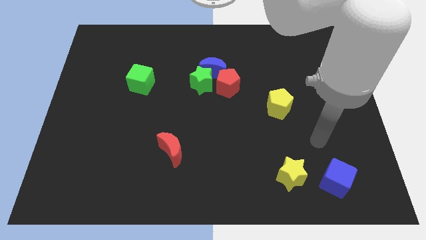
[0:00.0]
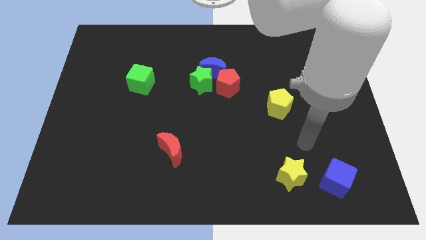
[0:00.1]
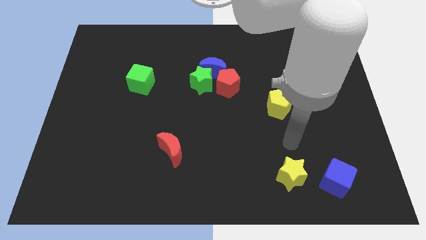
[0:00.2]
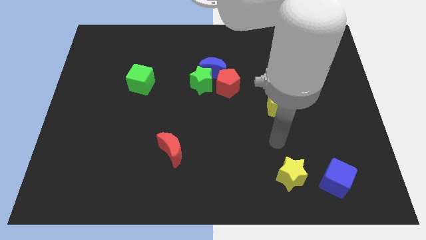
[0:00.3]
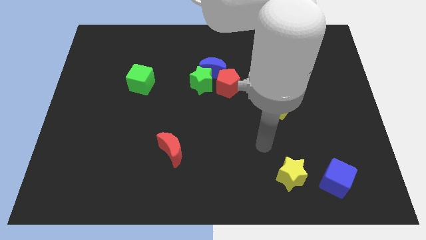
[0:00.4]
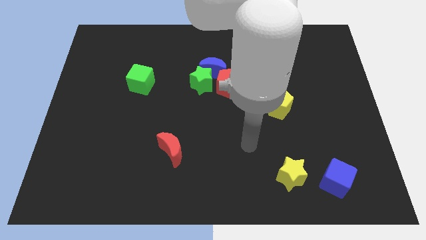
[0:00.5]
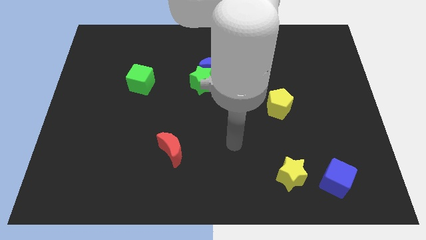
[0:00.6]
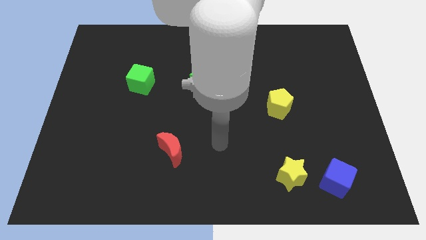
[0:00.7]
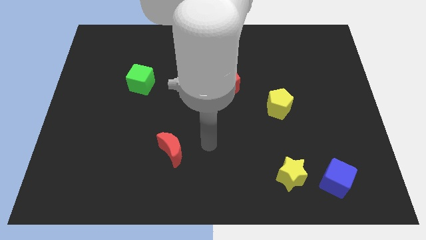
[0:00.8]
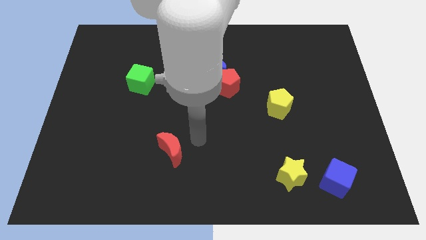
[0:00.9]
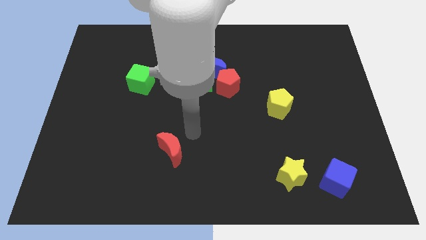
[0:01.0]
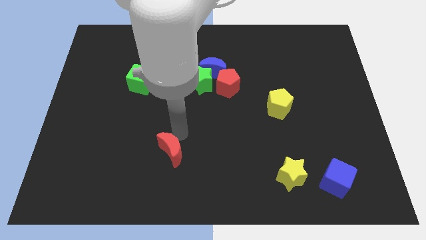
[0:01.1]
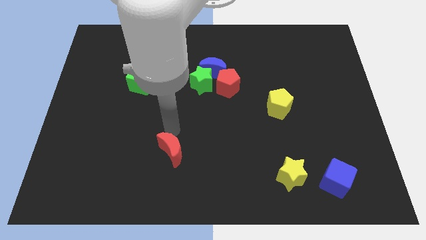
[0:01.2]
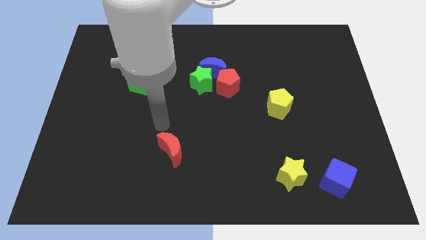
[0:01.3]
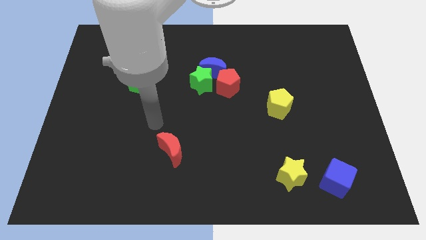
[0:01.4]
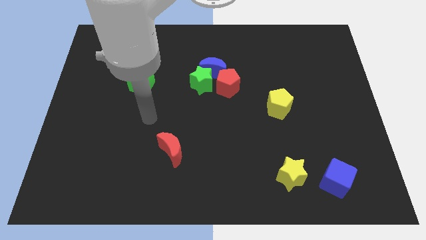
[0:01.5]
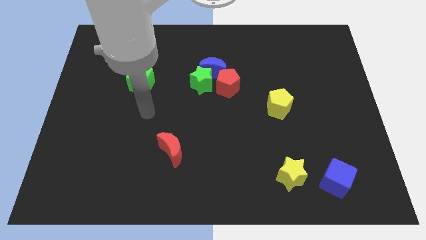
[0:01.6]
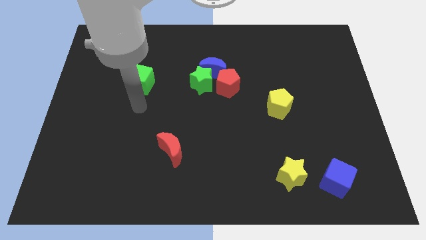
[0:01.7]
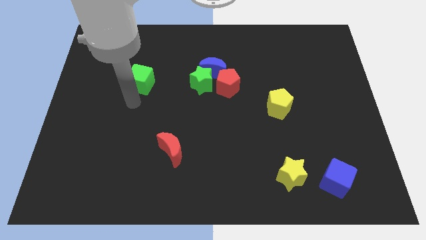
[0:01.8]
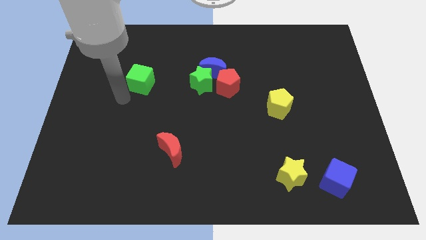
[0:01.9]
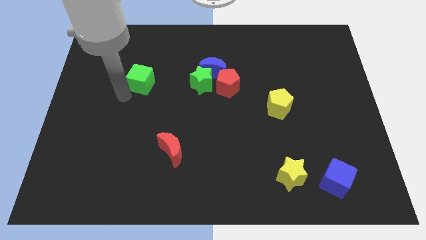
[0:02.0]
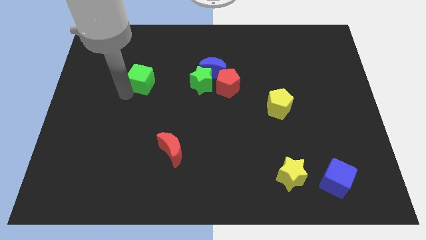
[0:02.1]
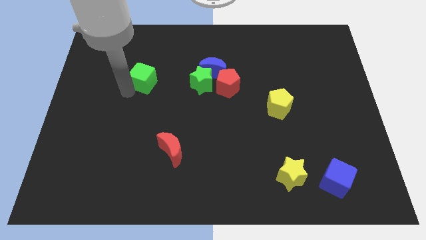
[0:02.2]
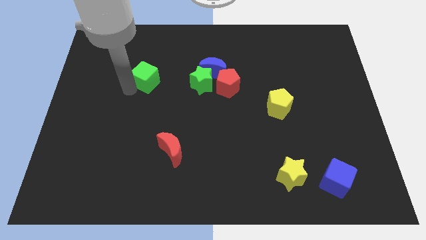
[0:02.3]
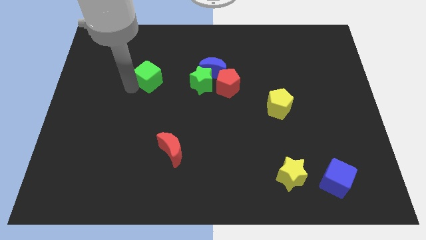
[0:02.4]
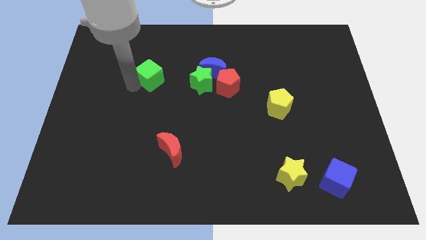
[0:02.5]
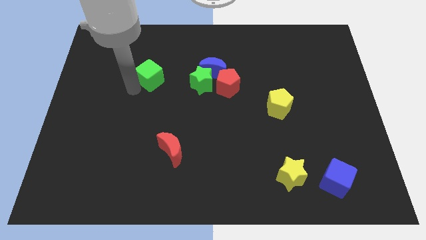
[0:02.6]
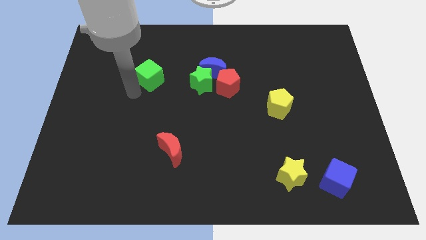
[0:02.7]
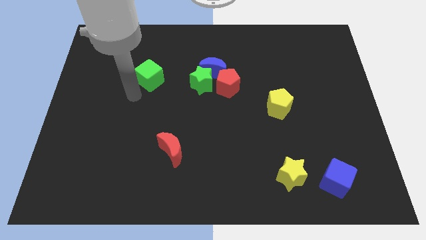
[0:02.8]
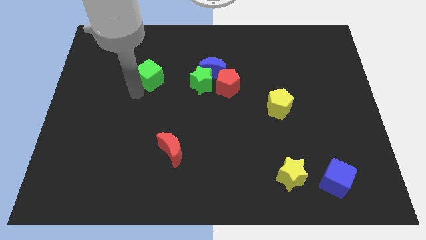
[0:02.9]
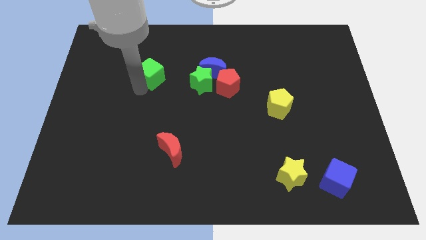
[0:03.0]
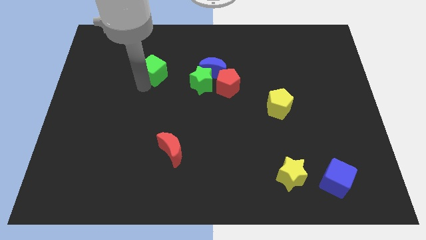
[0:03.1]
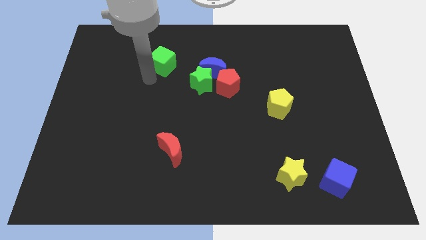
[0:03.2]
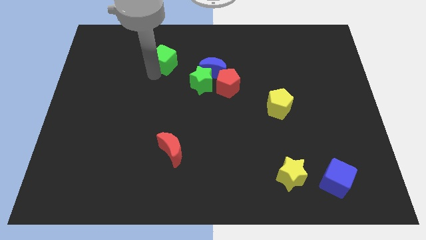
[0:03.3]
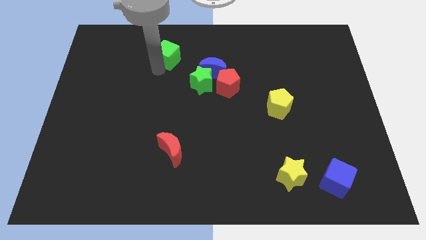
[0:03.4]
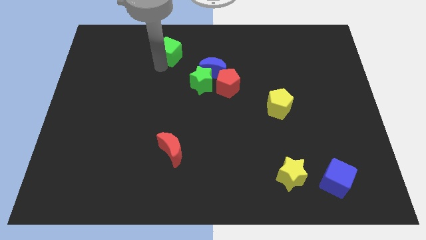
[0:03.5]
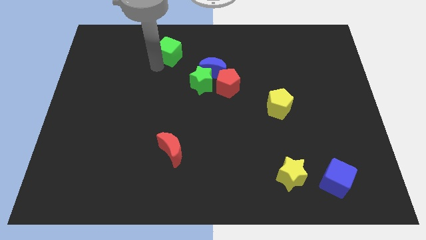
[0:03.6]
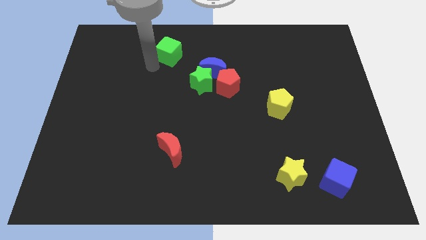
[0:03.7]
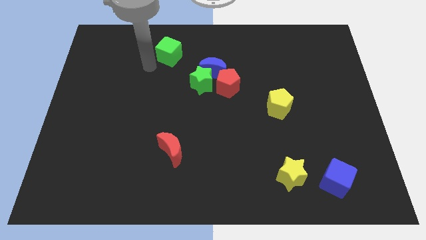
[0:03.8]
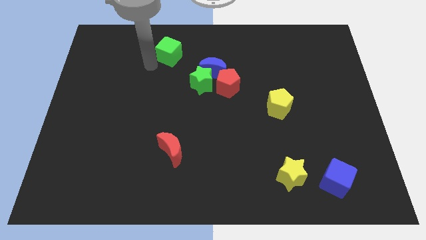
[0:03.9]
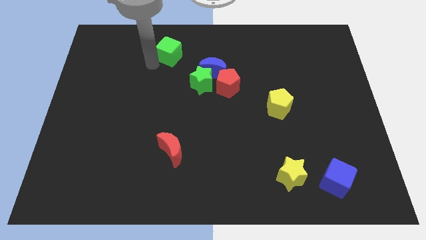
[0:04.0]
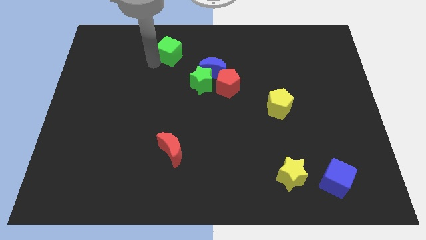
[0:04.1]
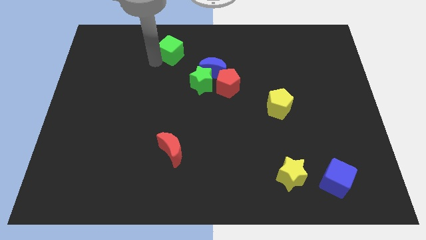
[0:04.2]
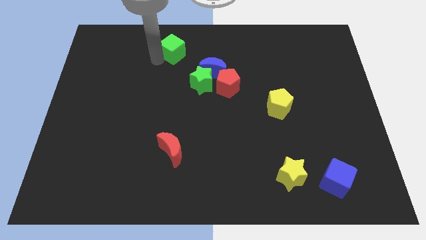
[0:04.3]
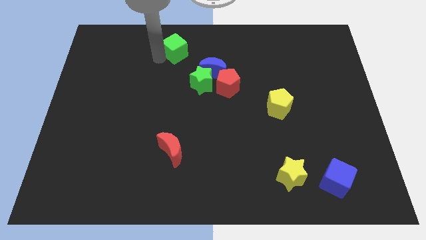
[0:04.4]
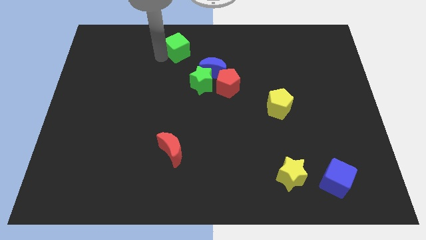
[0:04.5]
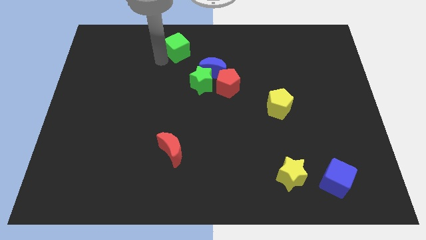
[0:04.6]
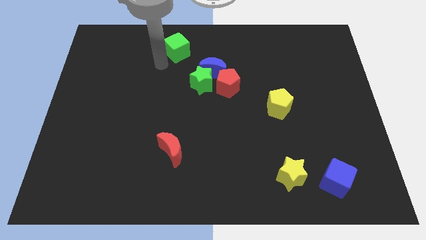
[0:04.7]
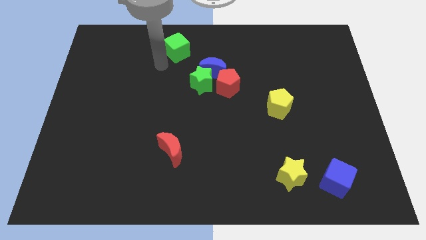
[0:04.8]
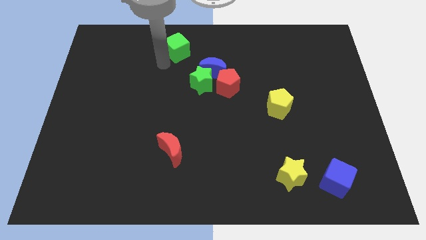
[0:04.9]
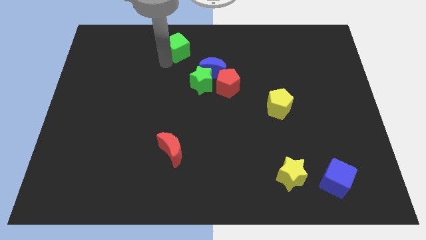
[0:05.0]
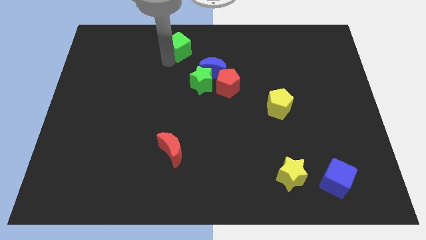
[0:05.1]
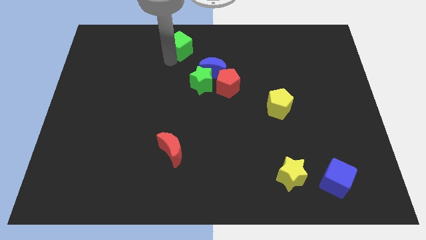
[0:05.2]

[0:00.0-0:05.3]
move the green cube to the towards your base

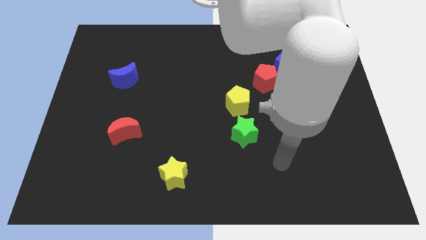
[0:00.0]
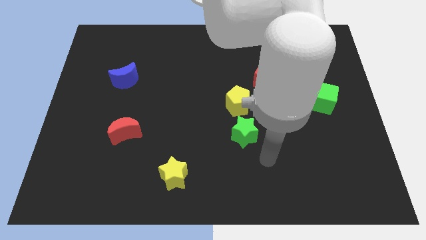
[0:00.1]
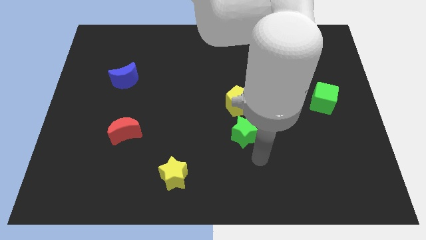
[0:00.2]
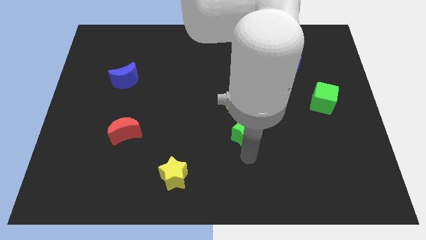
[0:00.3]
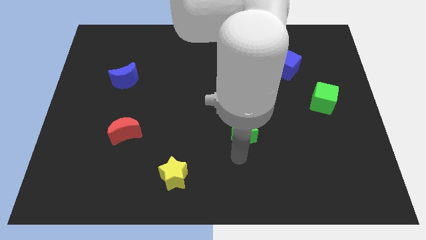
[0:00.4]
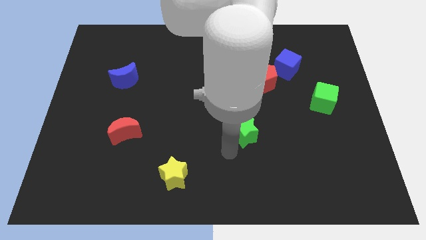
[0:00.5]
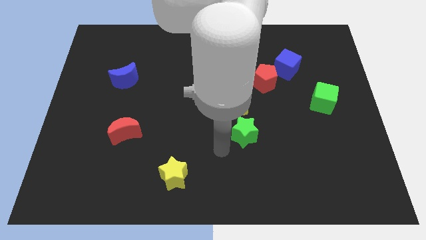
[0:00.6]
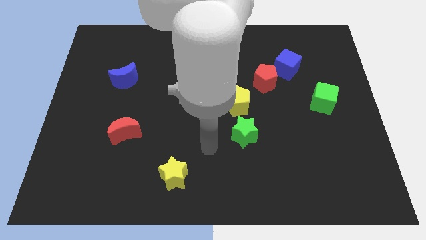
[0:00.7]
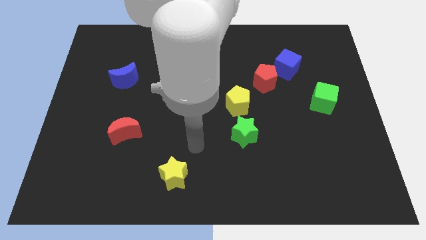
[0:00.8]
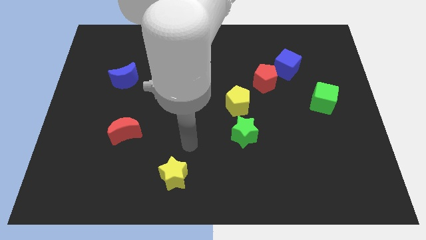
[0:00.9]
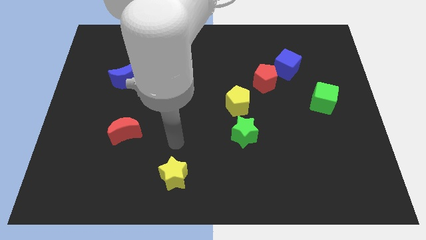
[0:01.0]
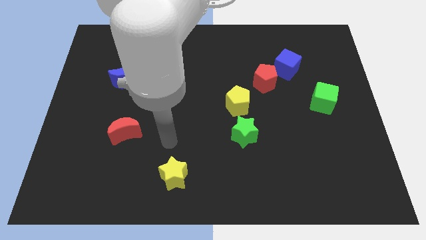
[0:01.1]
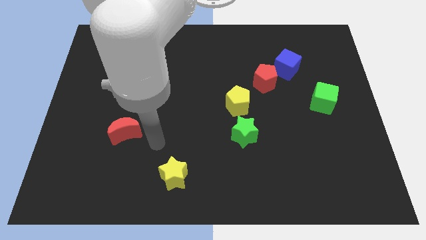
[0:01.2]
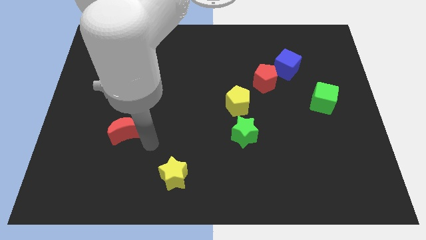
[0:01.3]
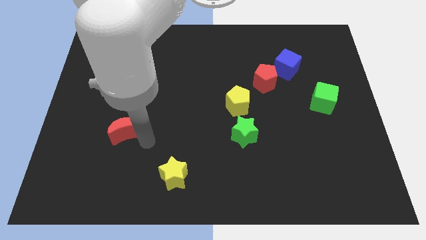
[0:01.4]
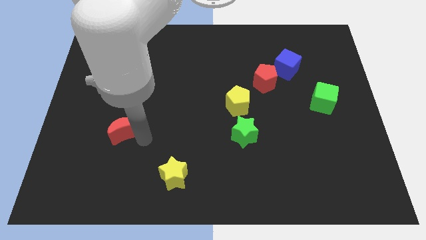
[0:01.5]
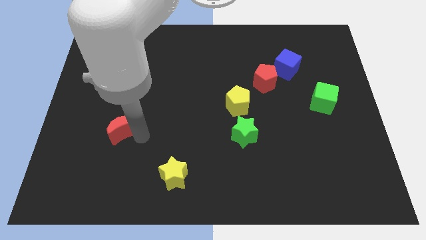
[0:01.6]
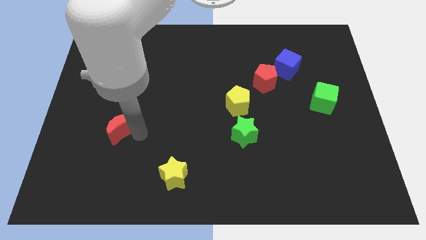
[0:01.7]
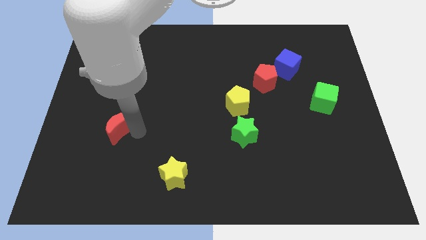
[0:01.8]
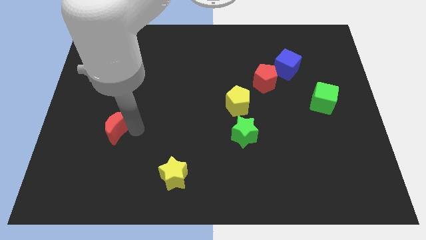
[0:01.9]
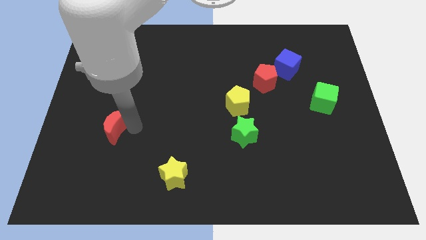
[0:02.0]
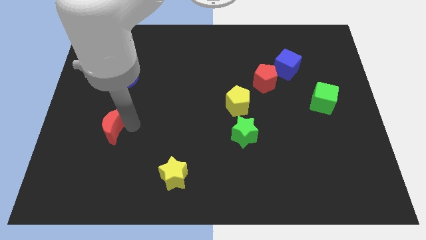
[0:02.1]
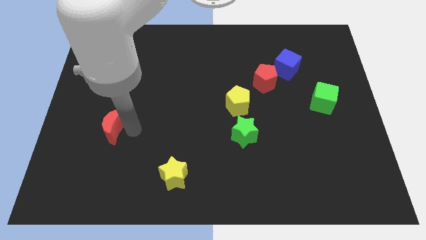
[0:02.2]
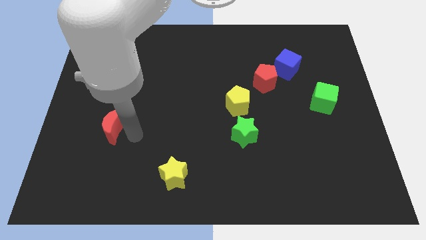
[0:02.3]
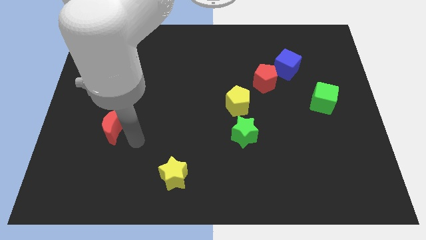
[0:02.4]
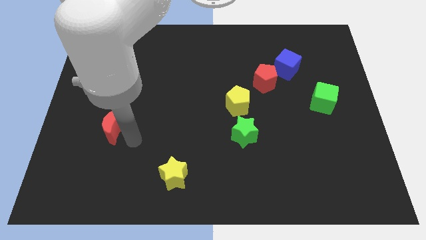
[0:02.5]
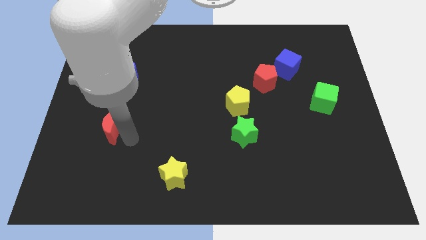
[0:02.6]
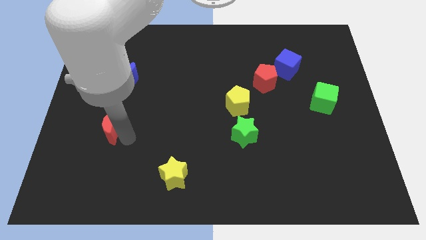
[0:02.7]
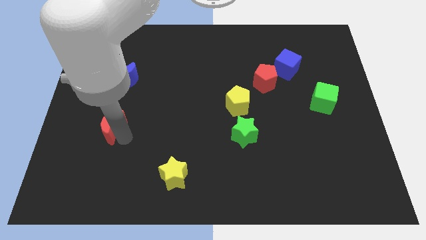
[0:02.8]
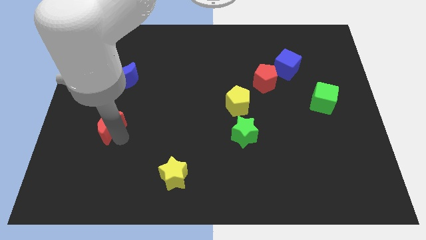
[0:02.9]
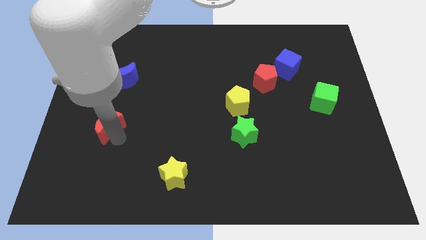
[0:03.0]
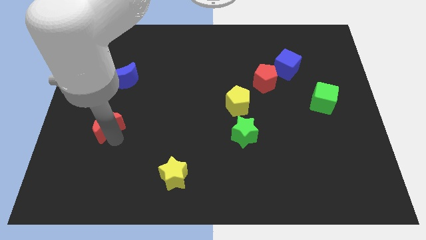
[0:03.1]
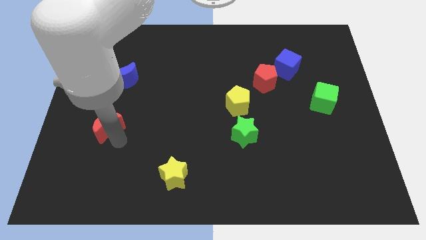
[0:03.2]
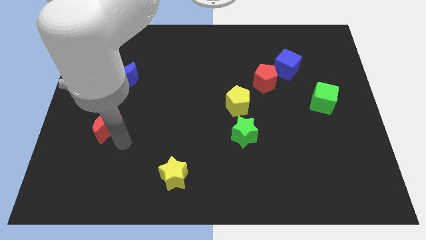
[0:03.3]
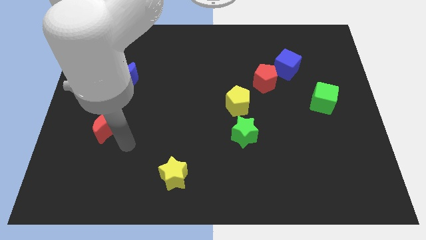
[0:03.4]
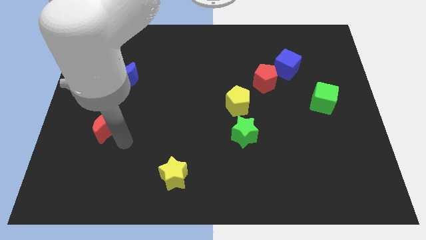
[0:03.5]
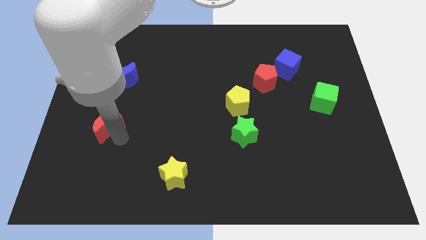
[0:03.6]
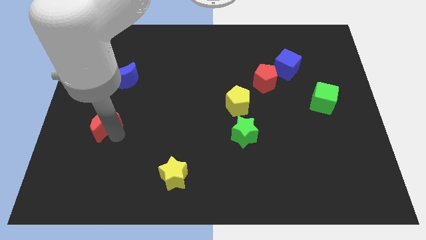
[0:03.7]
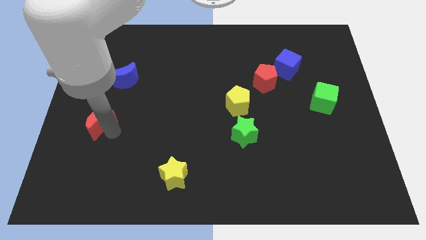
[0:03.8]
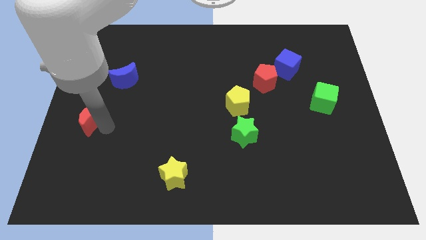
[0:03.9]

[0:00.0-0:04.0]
push the red moon to the left side
